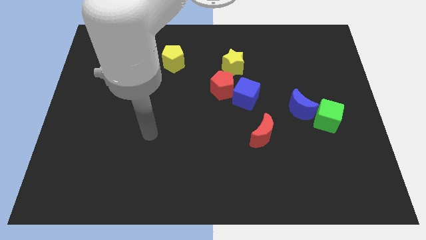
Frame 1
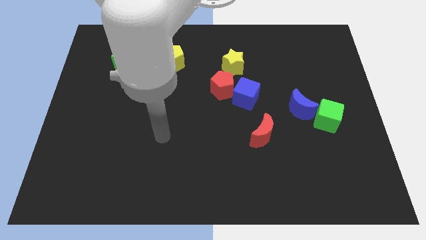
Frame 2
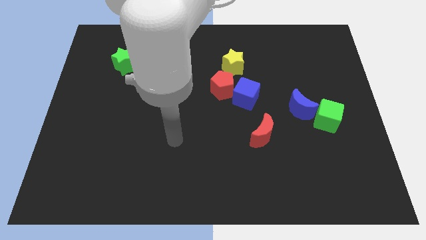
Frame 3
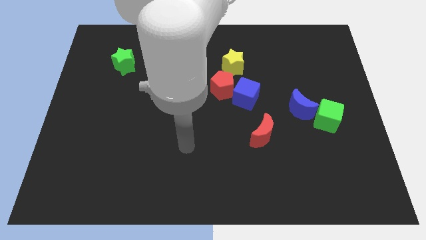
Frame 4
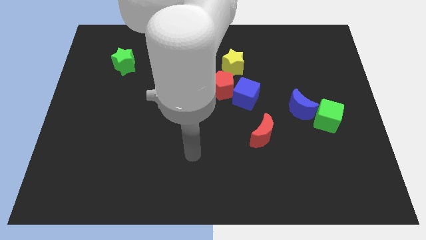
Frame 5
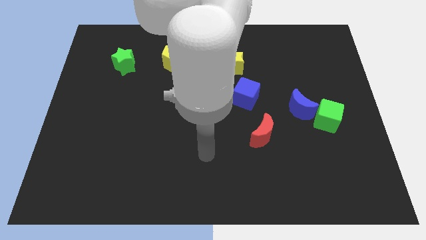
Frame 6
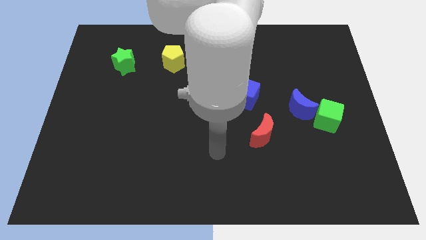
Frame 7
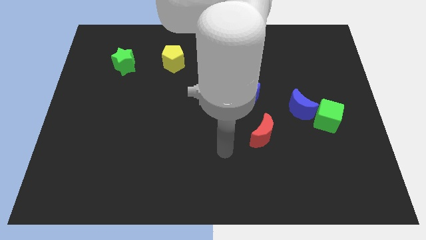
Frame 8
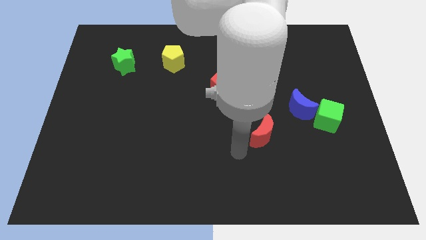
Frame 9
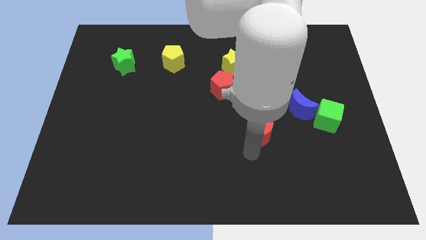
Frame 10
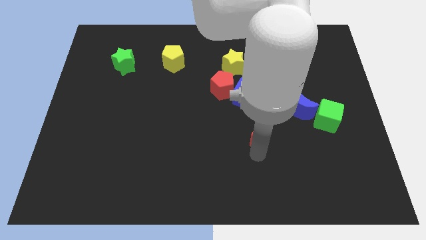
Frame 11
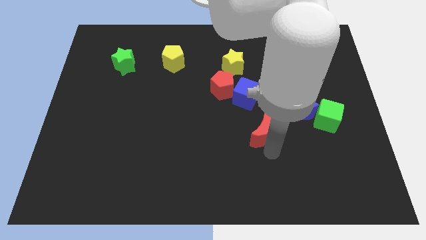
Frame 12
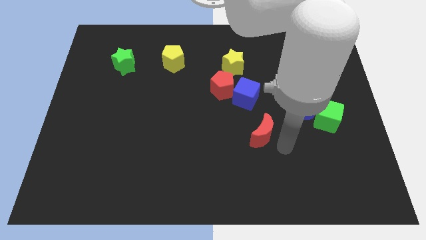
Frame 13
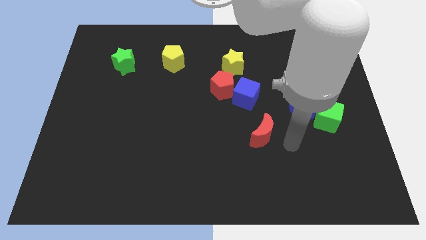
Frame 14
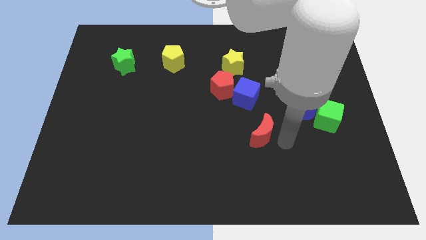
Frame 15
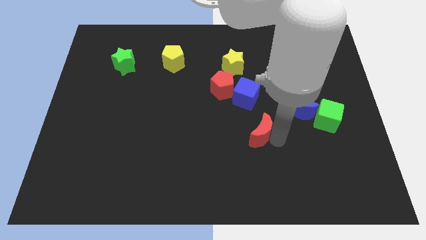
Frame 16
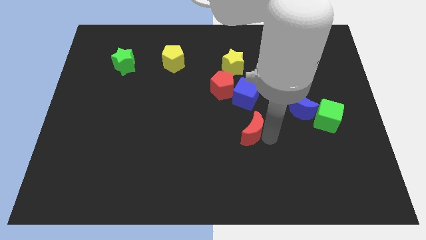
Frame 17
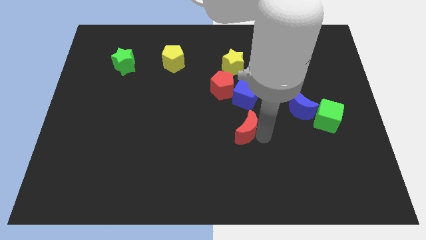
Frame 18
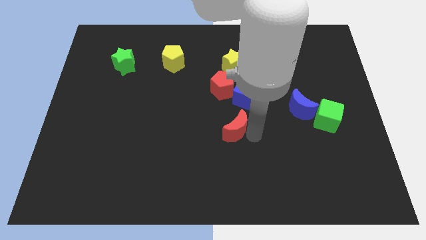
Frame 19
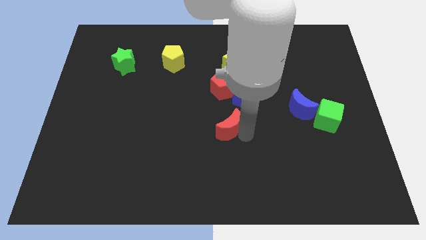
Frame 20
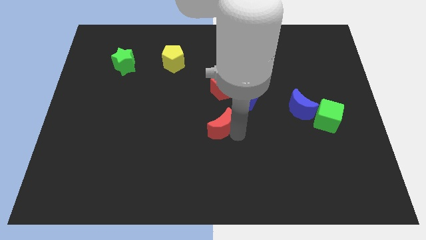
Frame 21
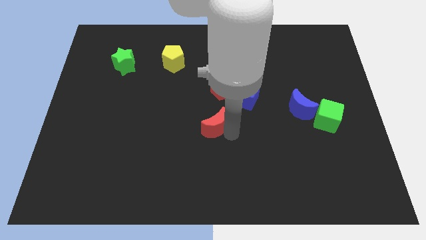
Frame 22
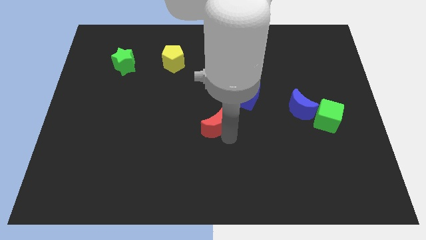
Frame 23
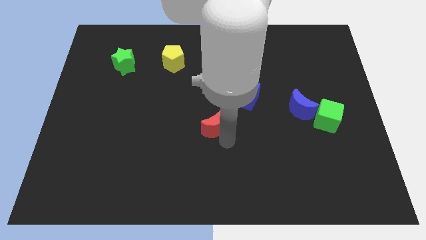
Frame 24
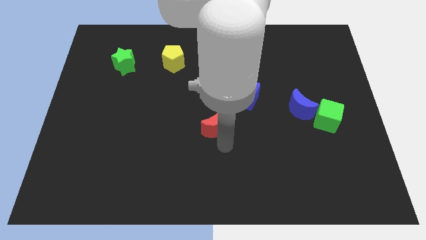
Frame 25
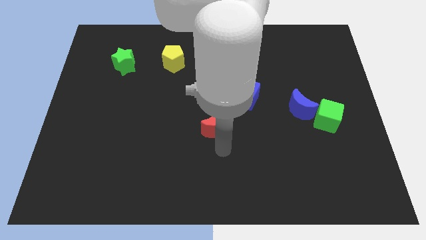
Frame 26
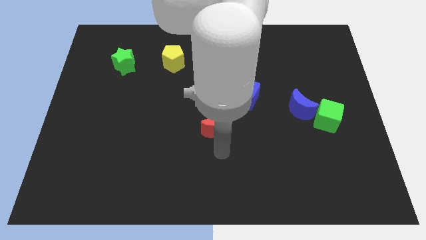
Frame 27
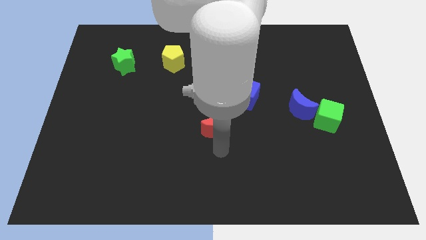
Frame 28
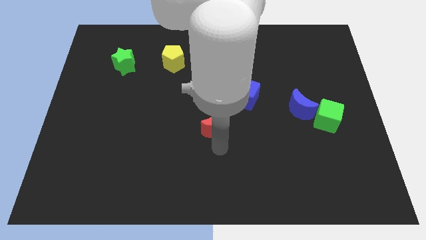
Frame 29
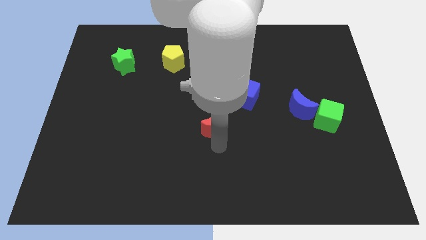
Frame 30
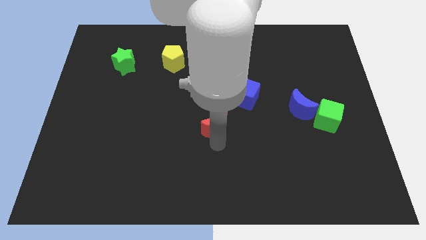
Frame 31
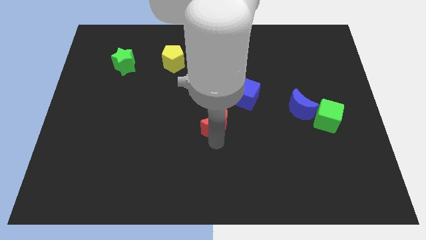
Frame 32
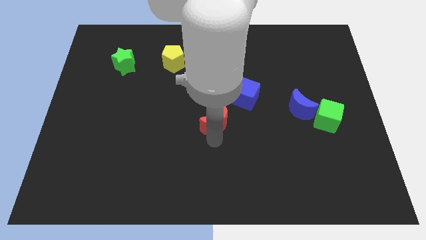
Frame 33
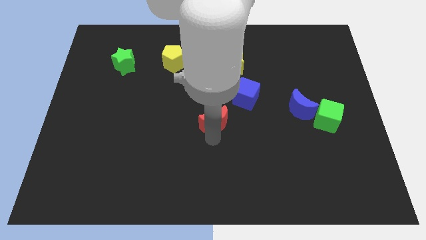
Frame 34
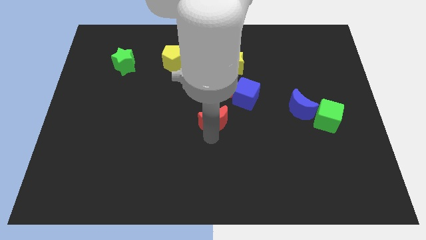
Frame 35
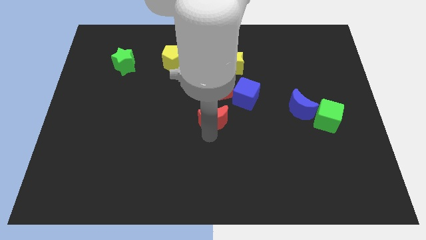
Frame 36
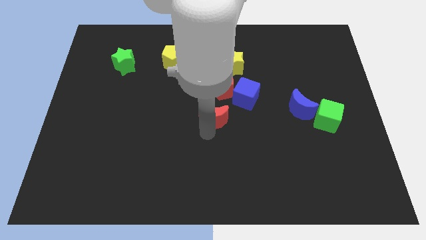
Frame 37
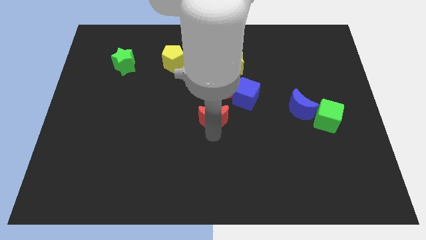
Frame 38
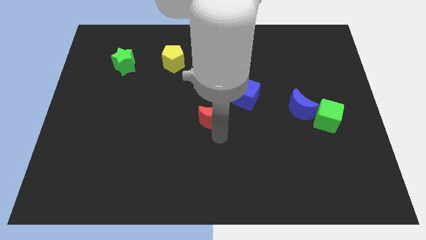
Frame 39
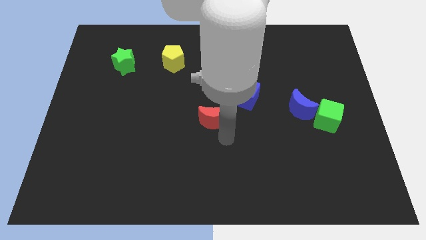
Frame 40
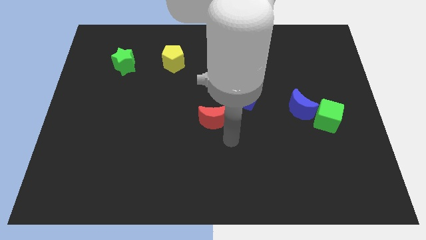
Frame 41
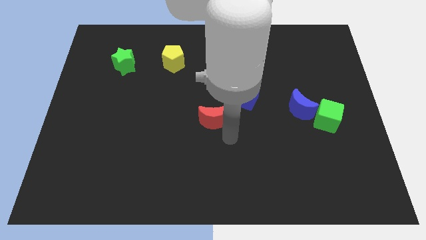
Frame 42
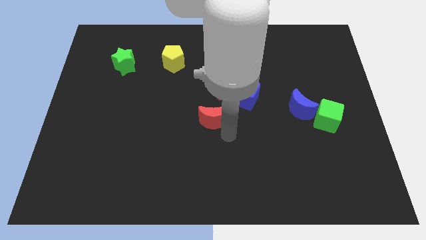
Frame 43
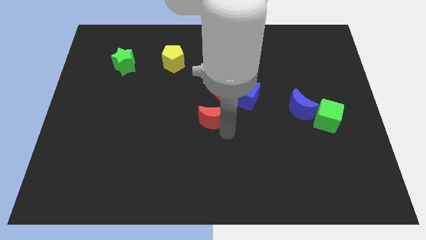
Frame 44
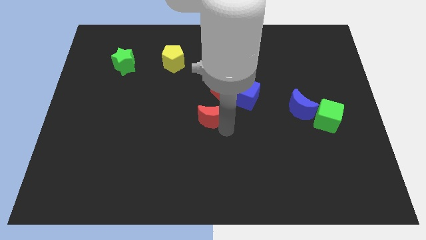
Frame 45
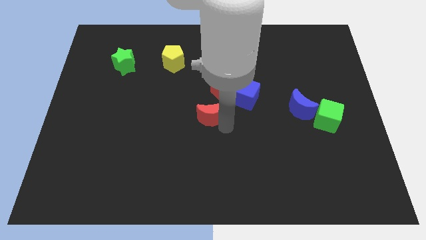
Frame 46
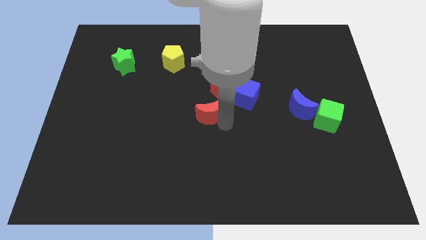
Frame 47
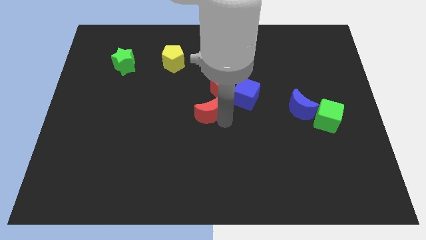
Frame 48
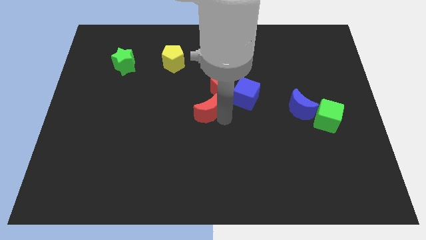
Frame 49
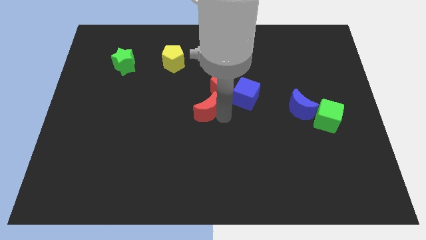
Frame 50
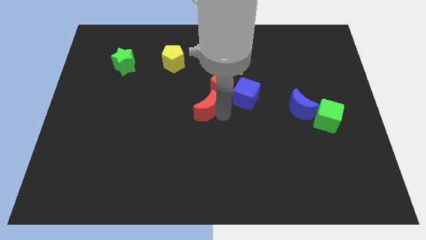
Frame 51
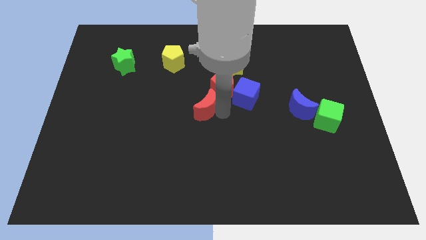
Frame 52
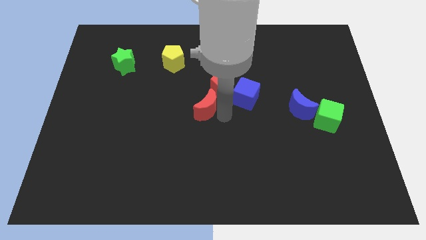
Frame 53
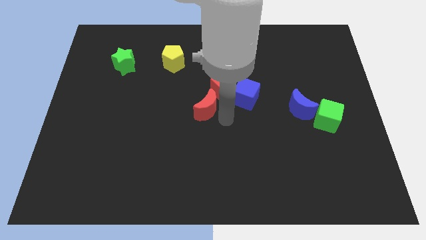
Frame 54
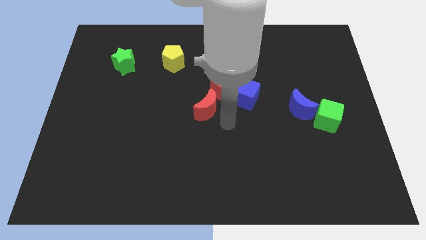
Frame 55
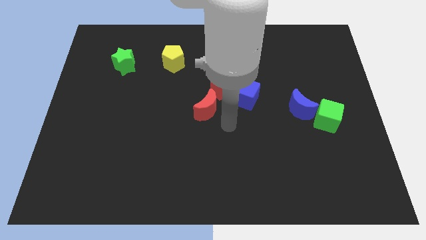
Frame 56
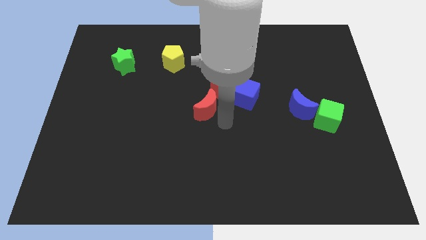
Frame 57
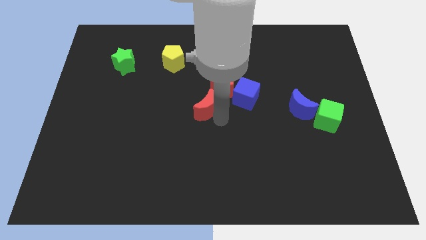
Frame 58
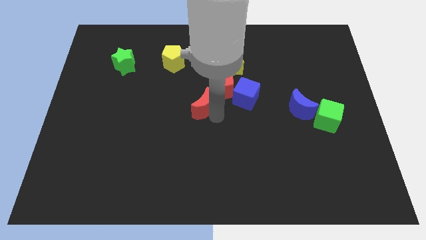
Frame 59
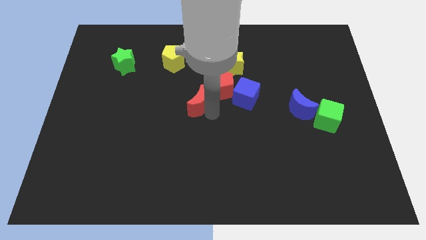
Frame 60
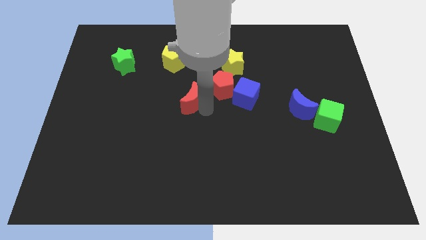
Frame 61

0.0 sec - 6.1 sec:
push the red moon left of the red pentagon

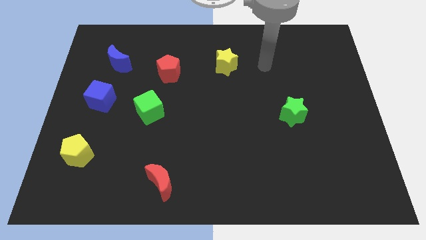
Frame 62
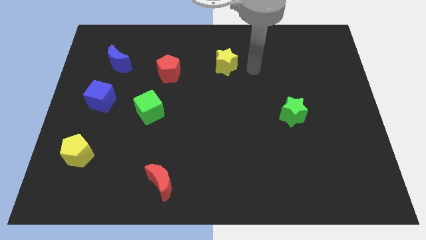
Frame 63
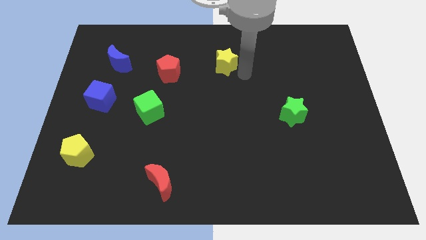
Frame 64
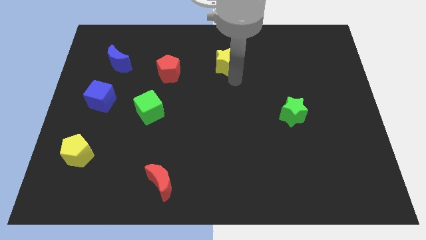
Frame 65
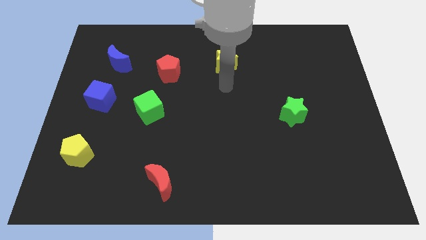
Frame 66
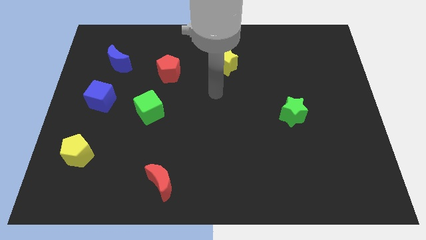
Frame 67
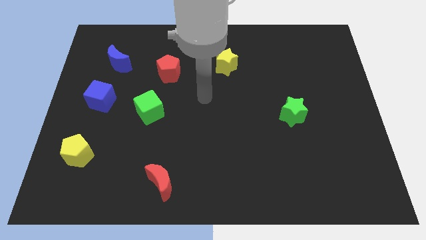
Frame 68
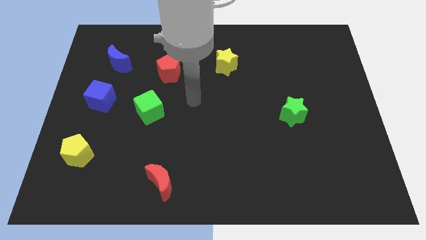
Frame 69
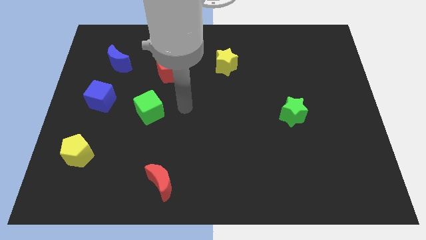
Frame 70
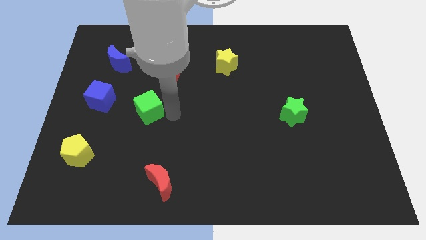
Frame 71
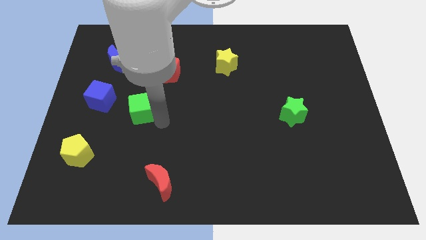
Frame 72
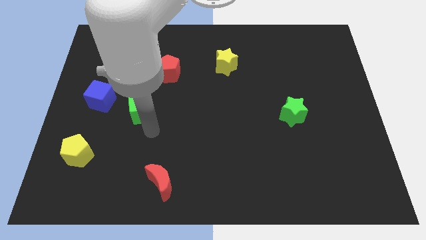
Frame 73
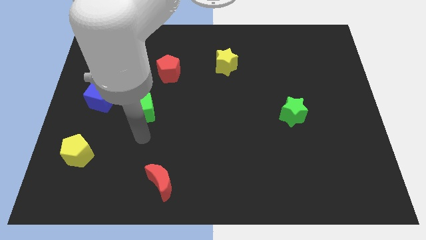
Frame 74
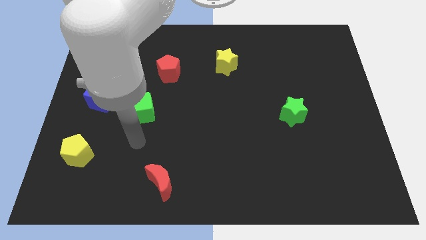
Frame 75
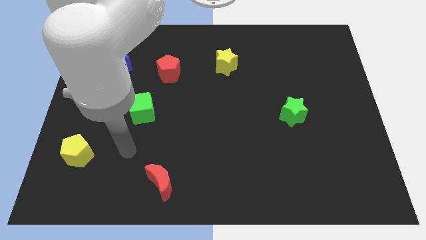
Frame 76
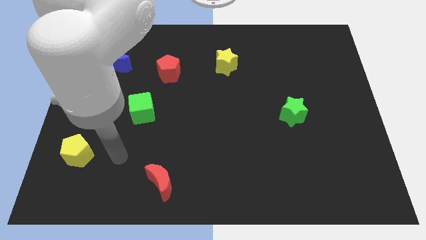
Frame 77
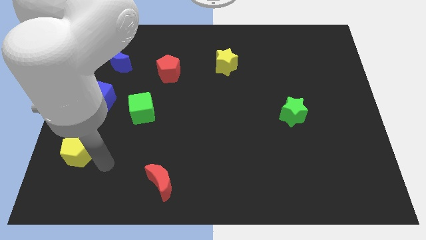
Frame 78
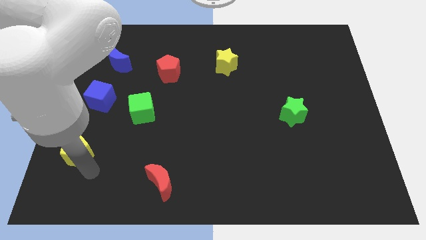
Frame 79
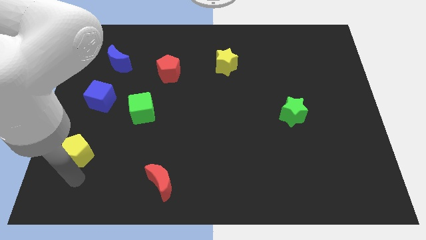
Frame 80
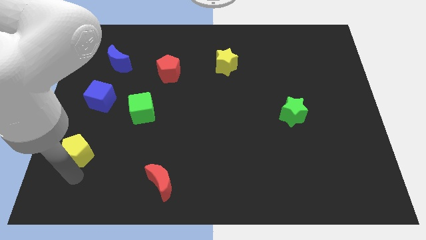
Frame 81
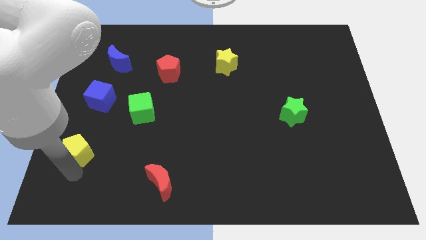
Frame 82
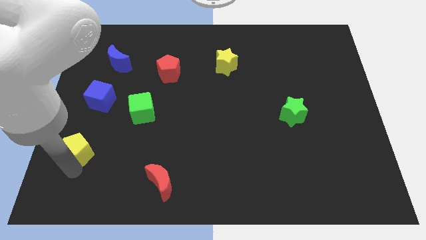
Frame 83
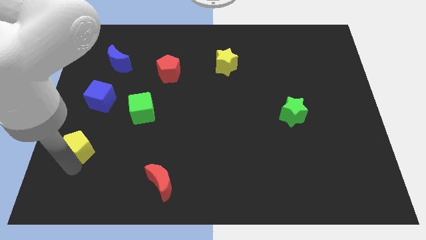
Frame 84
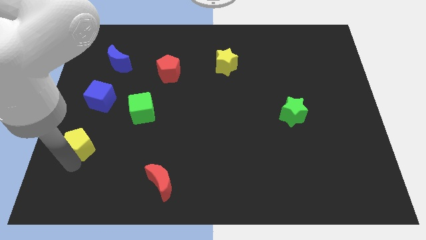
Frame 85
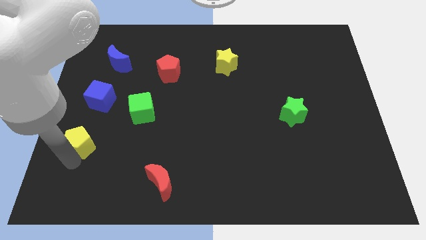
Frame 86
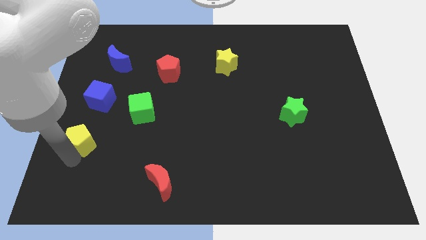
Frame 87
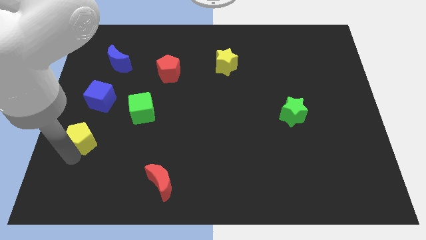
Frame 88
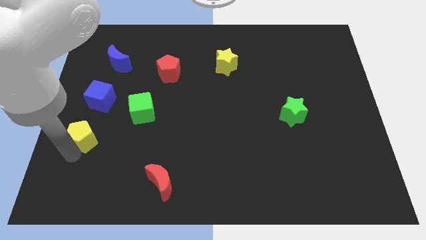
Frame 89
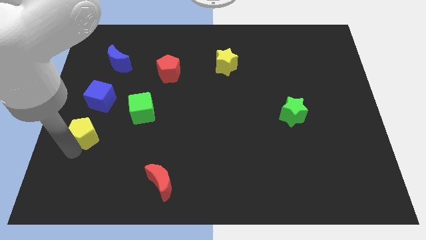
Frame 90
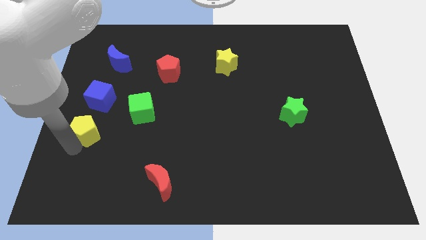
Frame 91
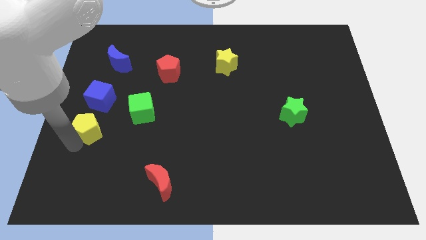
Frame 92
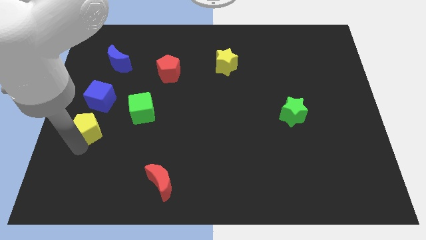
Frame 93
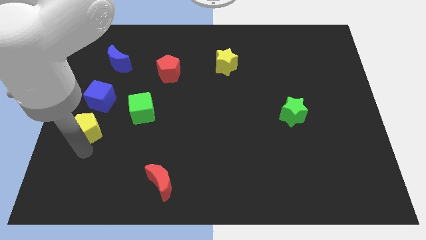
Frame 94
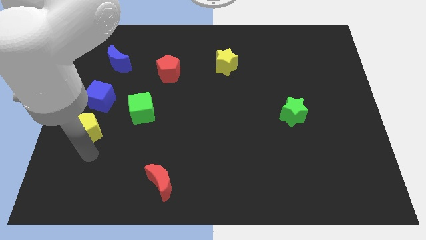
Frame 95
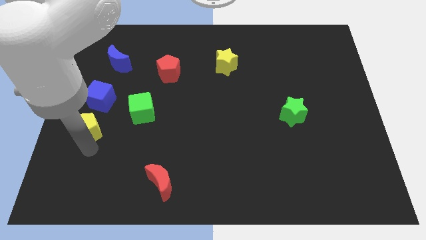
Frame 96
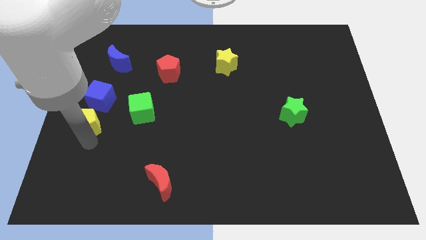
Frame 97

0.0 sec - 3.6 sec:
push the yellow pentagon to the left side of the green cube
